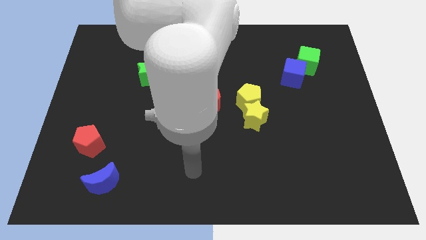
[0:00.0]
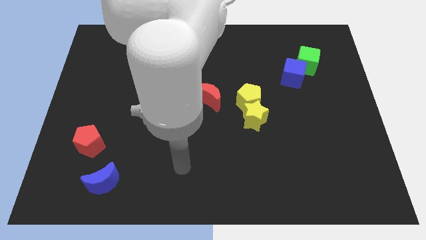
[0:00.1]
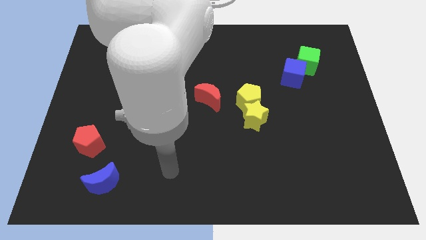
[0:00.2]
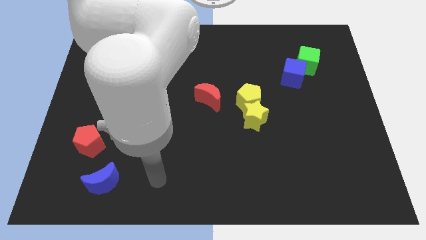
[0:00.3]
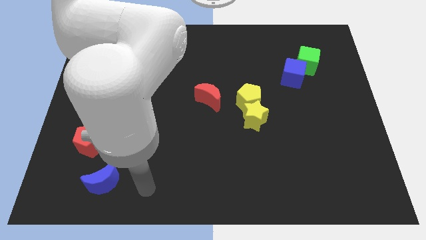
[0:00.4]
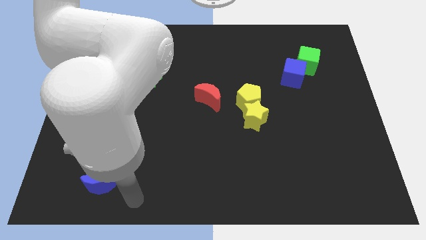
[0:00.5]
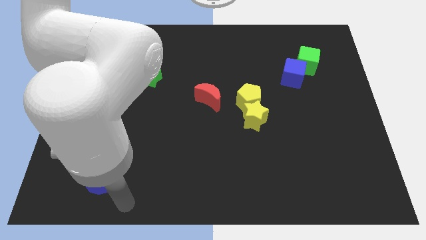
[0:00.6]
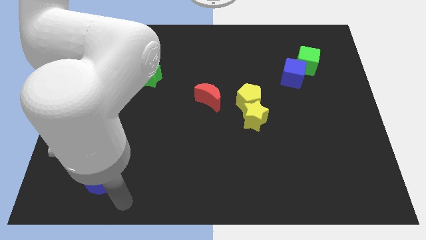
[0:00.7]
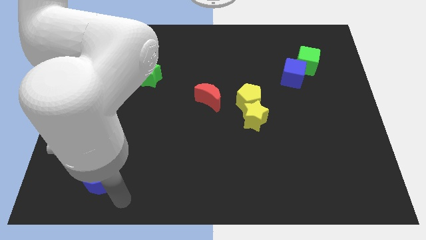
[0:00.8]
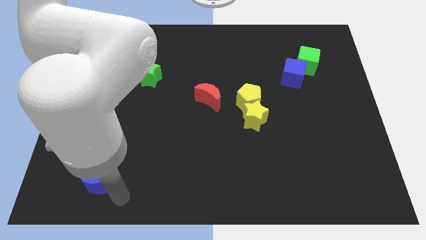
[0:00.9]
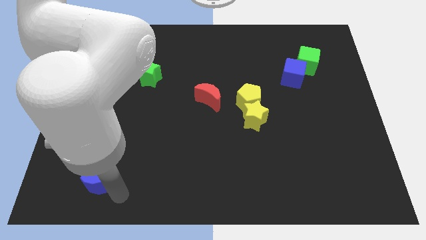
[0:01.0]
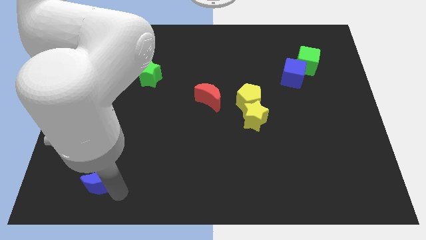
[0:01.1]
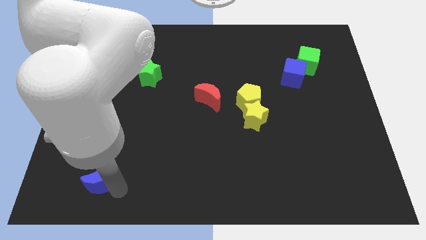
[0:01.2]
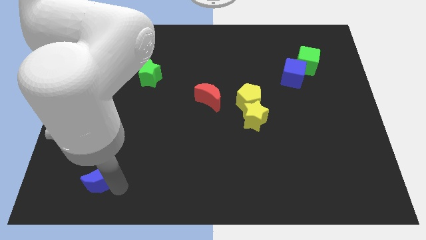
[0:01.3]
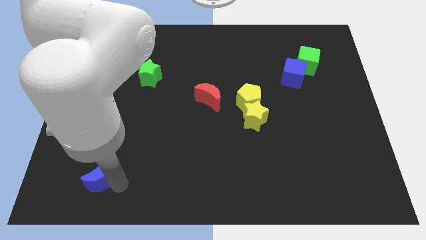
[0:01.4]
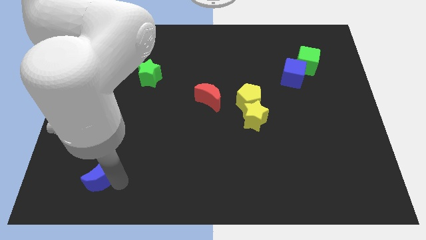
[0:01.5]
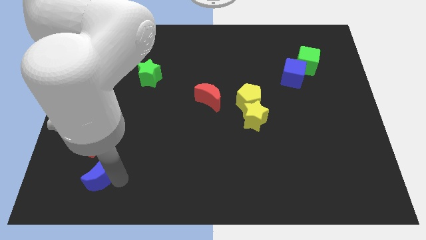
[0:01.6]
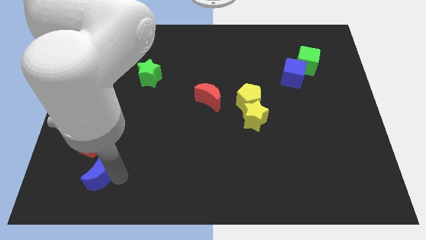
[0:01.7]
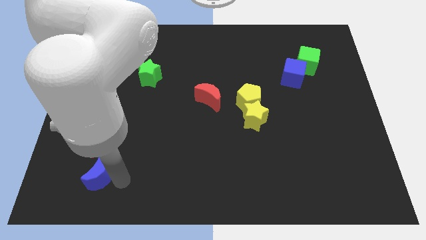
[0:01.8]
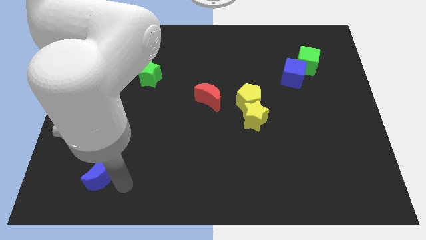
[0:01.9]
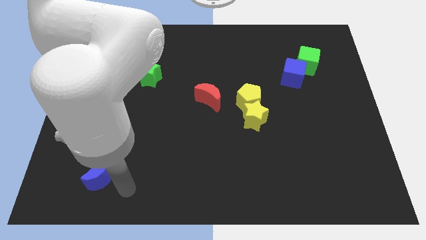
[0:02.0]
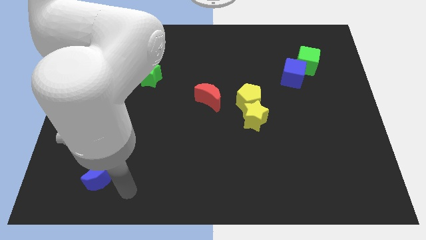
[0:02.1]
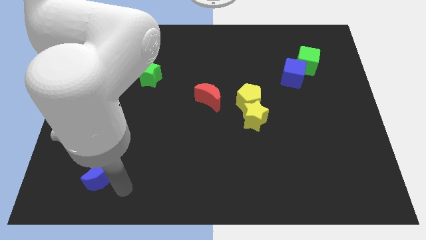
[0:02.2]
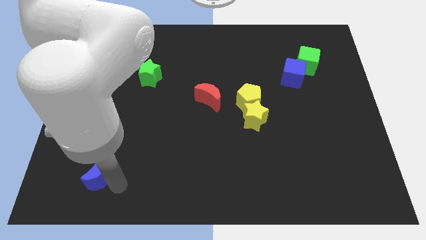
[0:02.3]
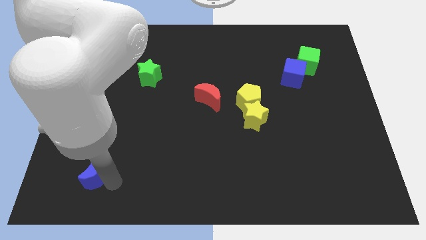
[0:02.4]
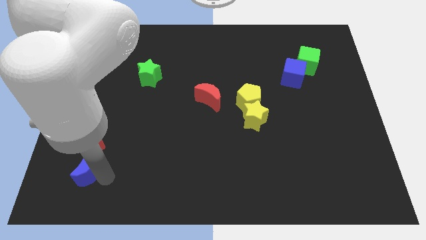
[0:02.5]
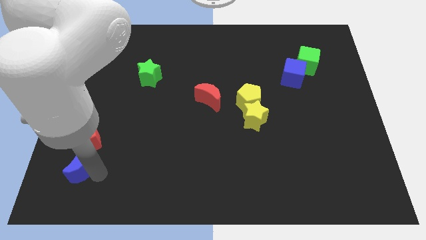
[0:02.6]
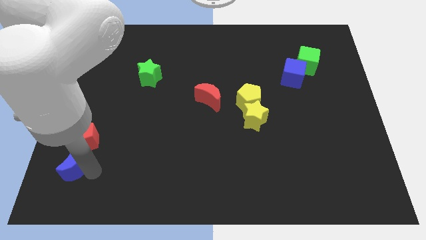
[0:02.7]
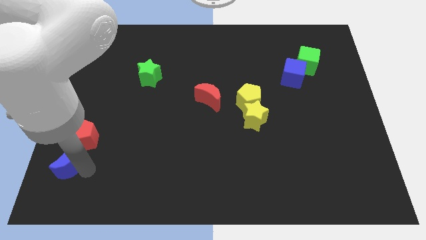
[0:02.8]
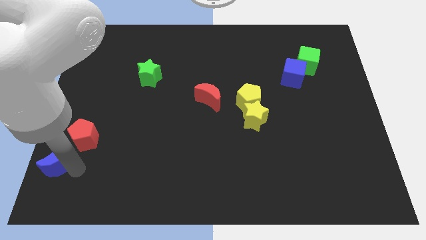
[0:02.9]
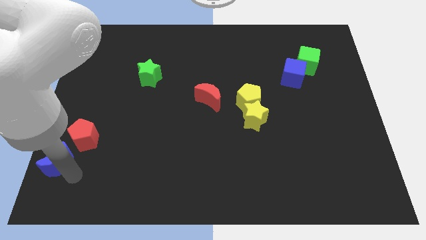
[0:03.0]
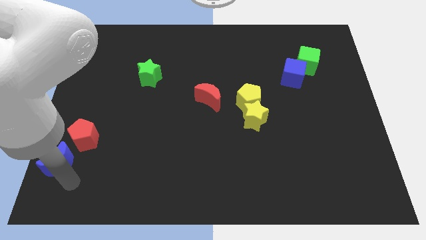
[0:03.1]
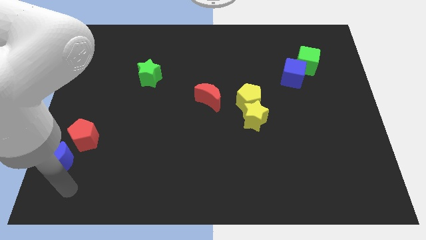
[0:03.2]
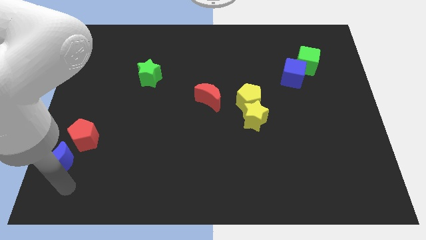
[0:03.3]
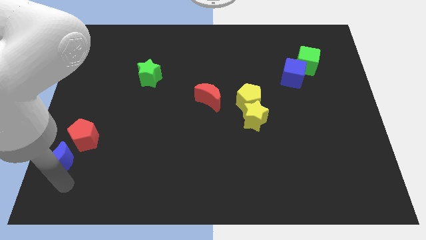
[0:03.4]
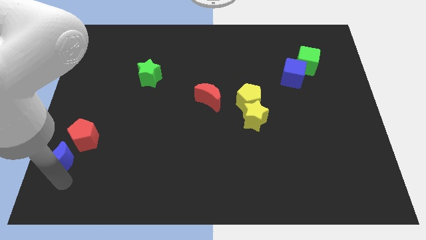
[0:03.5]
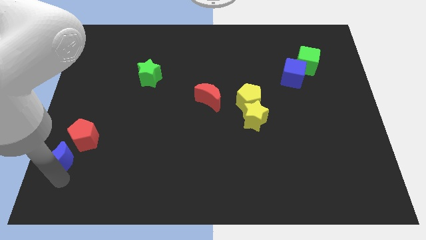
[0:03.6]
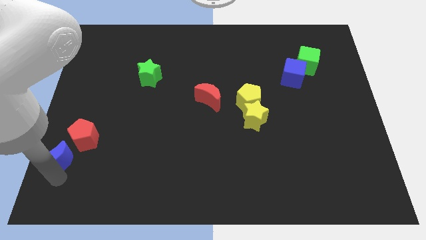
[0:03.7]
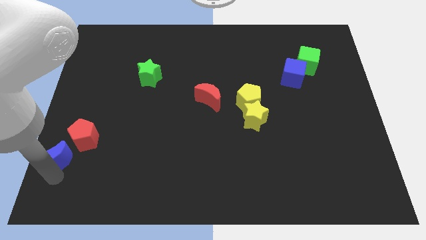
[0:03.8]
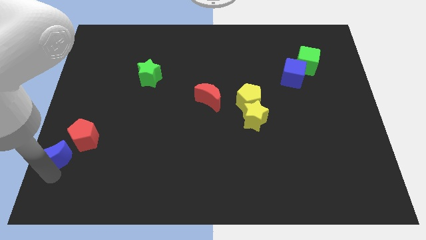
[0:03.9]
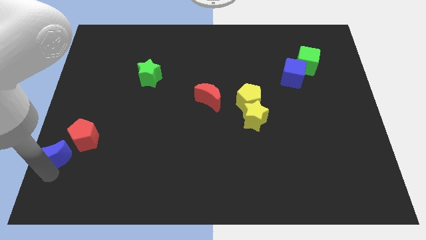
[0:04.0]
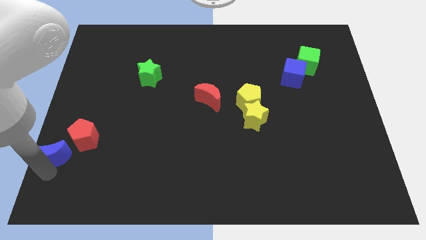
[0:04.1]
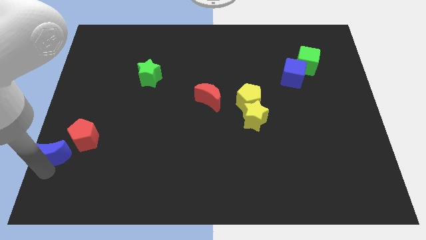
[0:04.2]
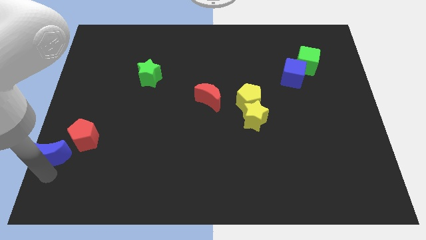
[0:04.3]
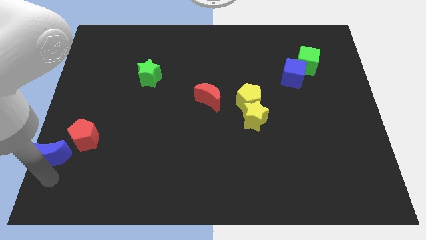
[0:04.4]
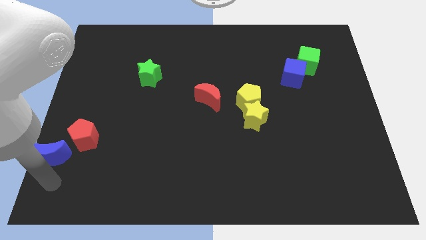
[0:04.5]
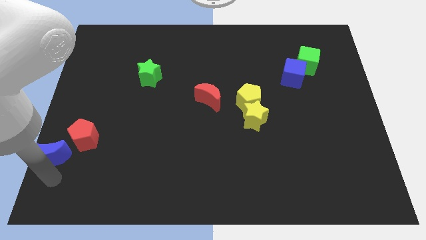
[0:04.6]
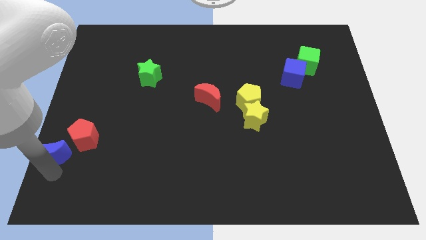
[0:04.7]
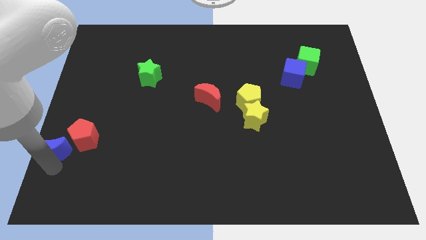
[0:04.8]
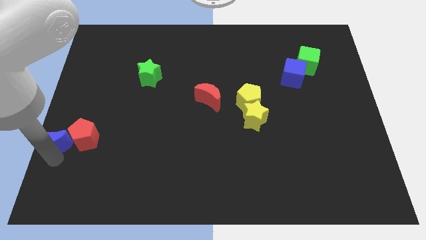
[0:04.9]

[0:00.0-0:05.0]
push the blue moon to the center left
